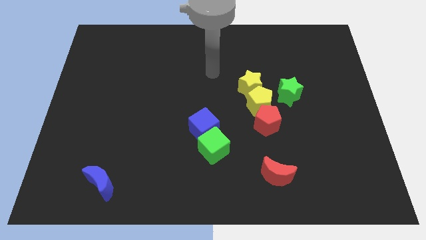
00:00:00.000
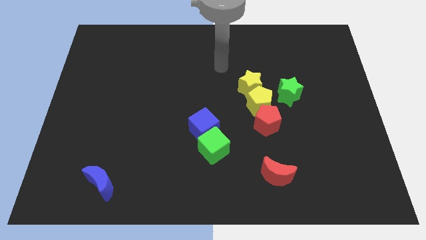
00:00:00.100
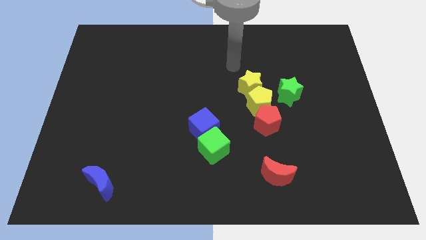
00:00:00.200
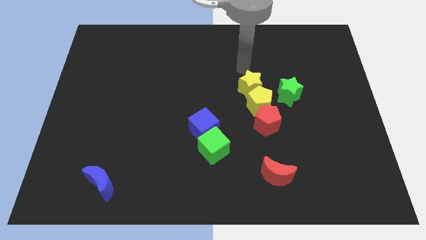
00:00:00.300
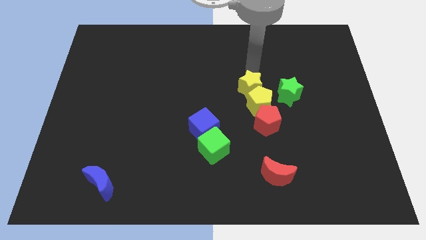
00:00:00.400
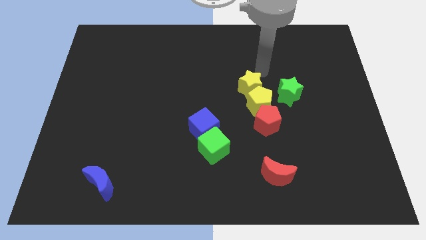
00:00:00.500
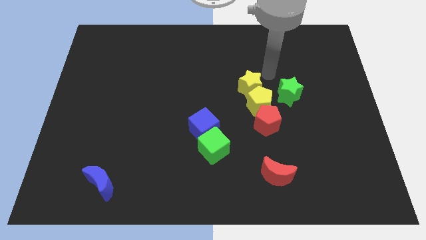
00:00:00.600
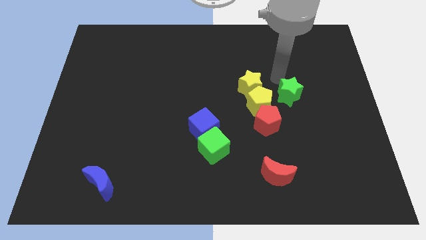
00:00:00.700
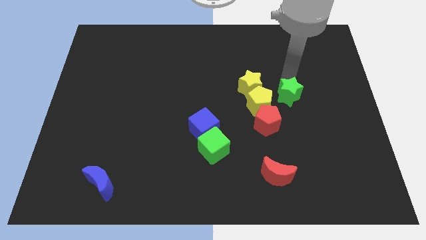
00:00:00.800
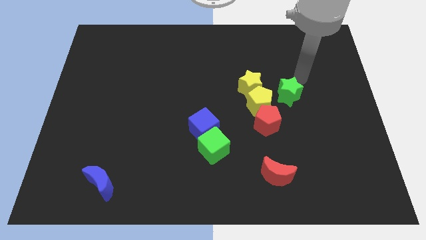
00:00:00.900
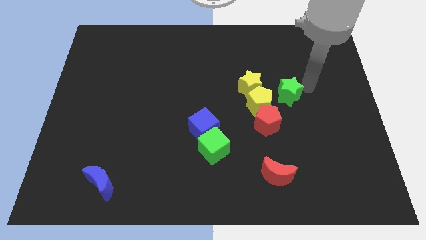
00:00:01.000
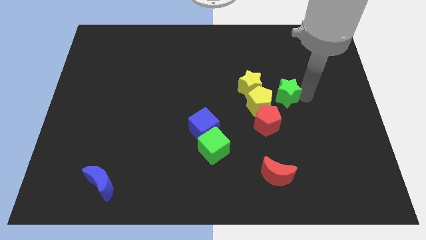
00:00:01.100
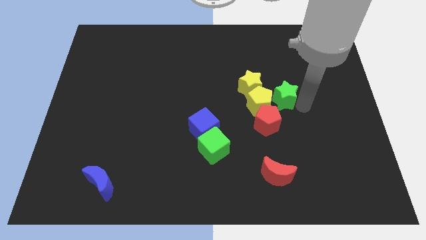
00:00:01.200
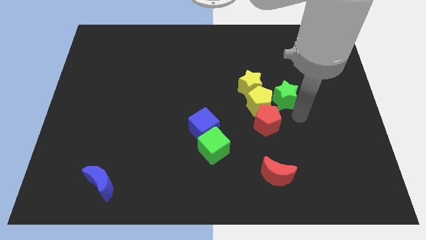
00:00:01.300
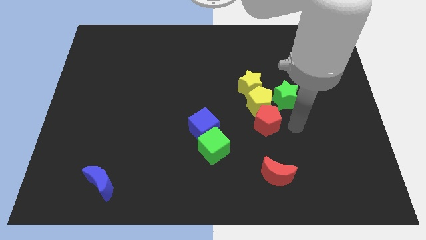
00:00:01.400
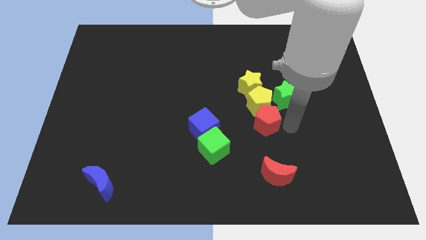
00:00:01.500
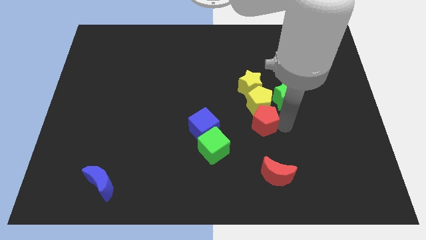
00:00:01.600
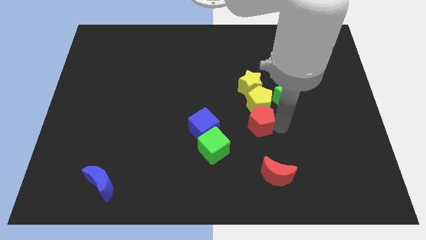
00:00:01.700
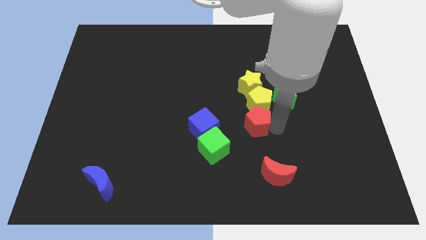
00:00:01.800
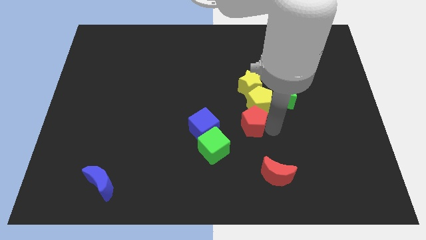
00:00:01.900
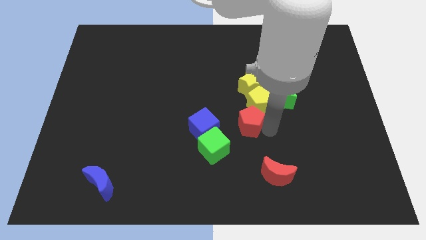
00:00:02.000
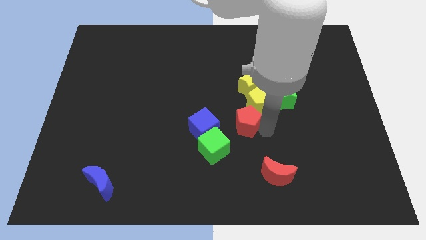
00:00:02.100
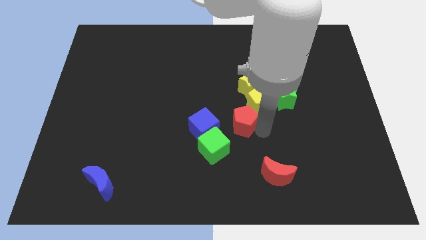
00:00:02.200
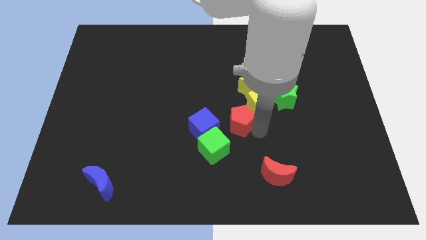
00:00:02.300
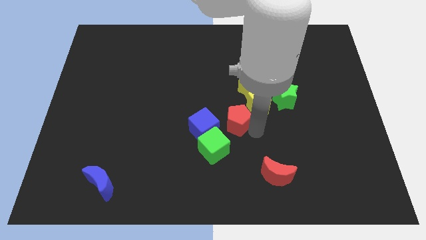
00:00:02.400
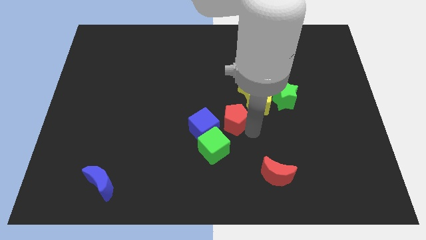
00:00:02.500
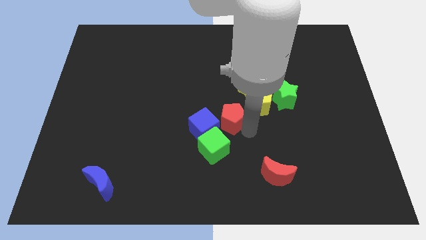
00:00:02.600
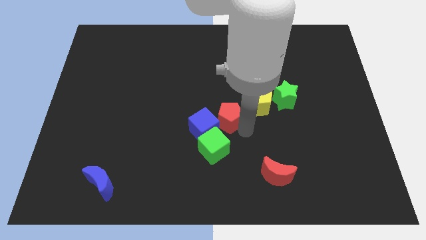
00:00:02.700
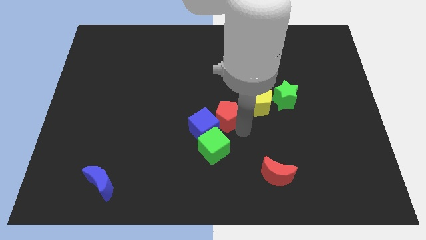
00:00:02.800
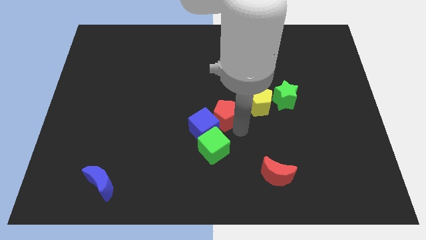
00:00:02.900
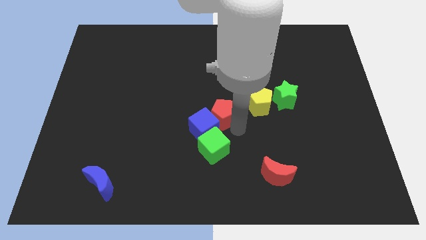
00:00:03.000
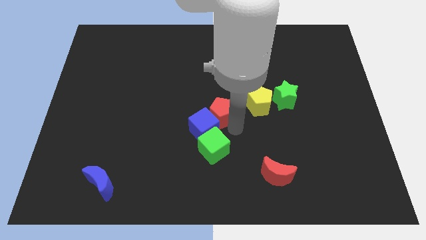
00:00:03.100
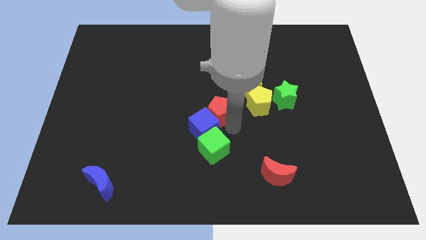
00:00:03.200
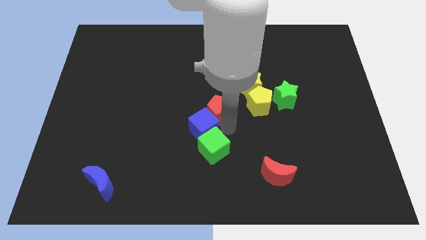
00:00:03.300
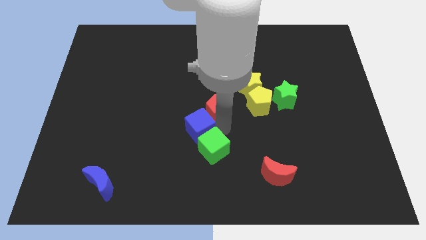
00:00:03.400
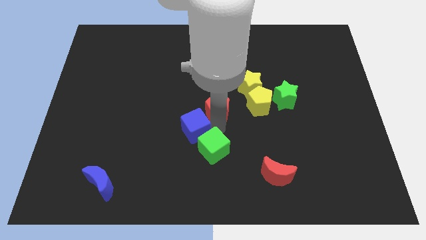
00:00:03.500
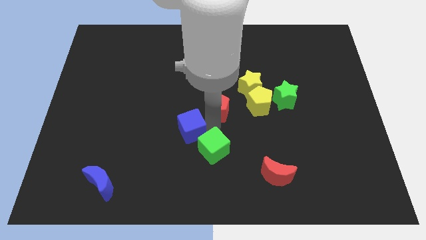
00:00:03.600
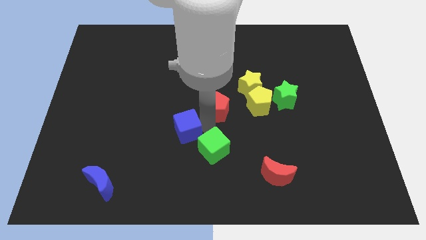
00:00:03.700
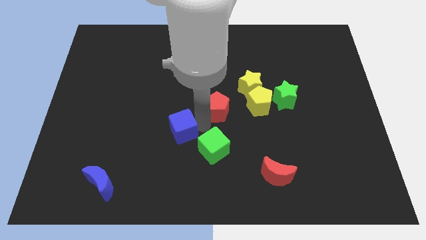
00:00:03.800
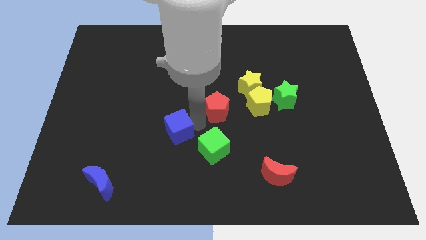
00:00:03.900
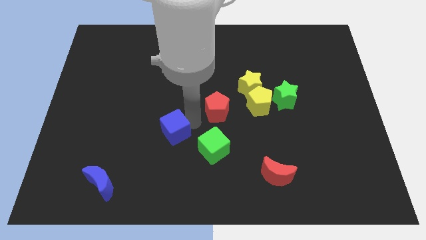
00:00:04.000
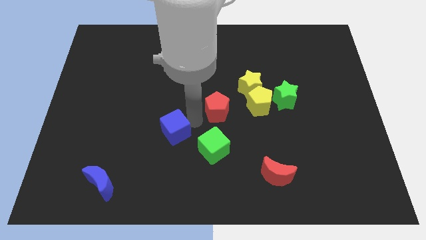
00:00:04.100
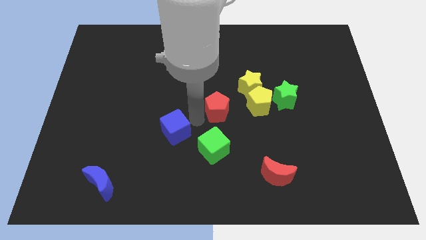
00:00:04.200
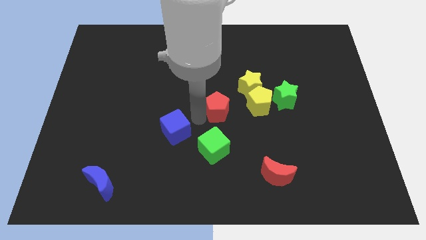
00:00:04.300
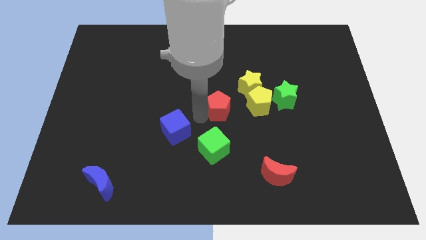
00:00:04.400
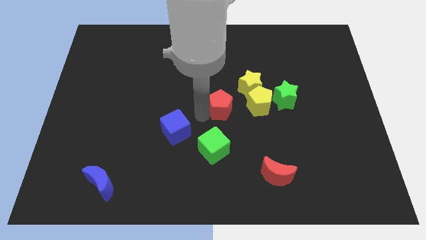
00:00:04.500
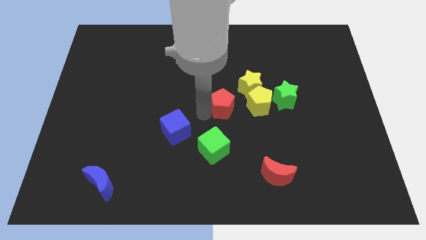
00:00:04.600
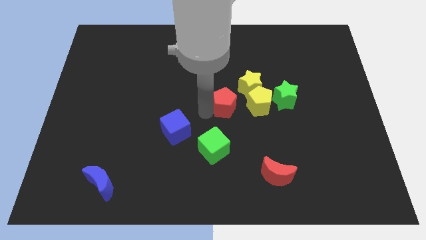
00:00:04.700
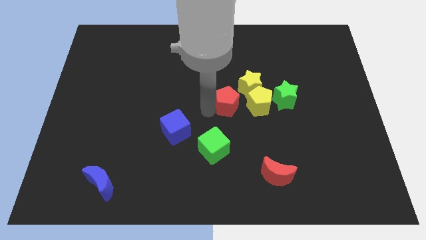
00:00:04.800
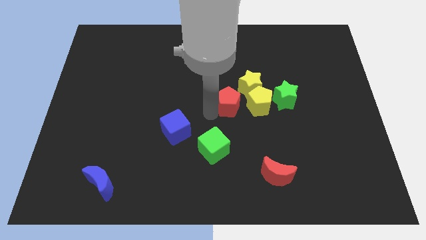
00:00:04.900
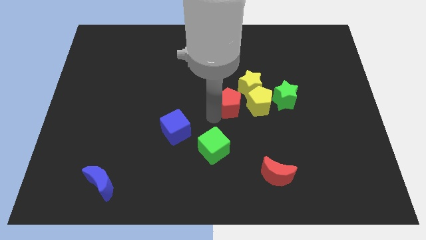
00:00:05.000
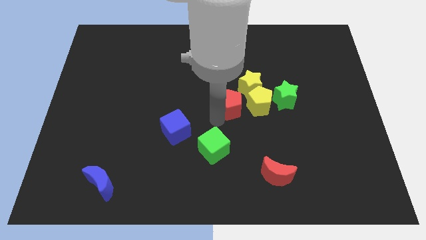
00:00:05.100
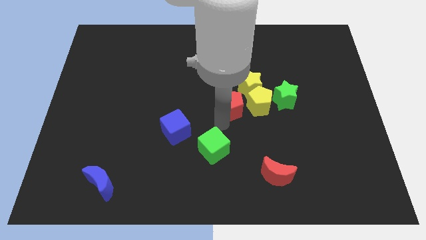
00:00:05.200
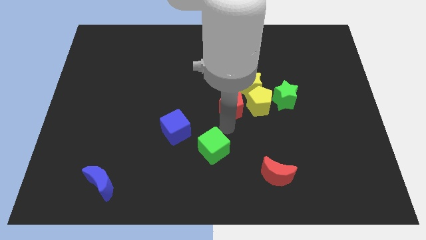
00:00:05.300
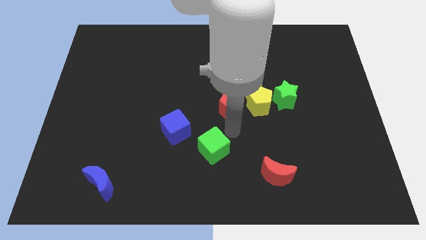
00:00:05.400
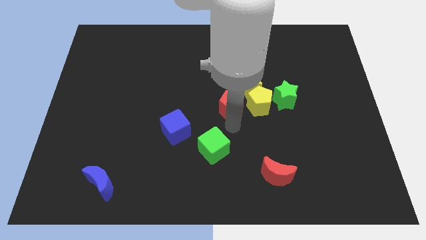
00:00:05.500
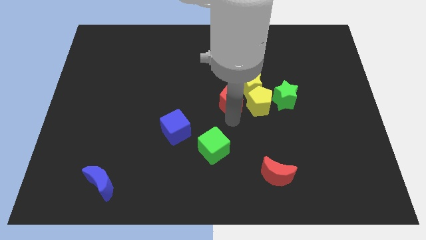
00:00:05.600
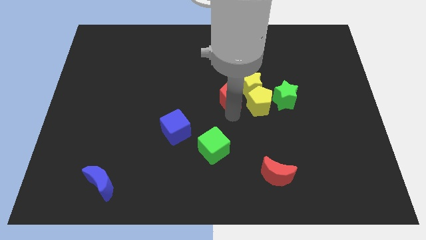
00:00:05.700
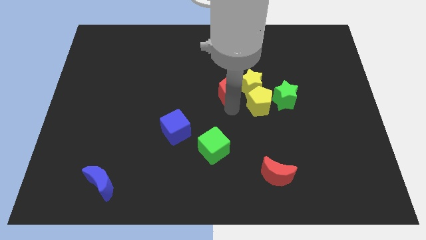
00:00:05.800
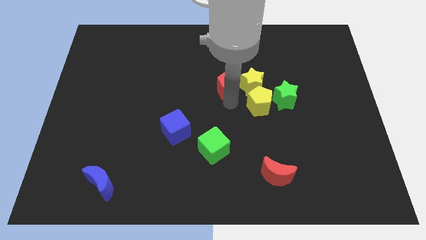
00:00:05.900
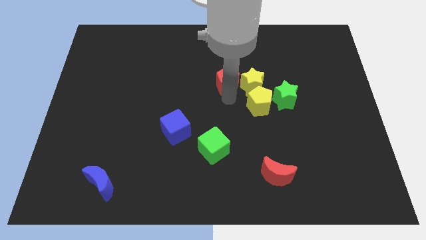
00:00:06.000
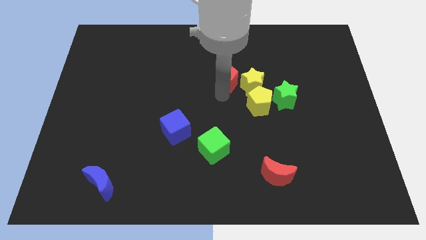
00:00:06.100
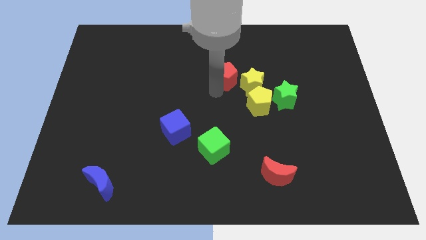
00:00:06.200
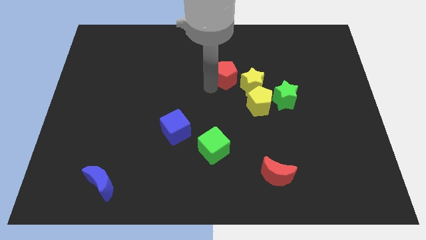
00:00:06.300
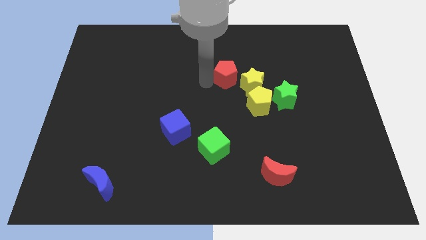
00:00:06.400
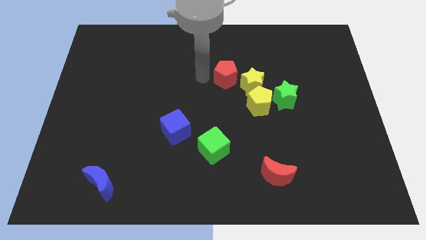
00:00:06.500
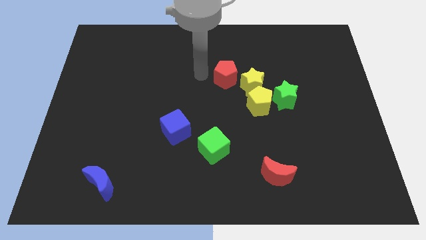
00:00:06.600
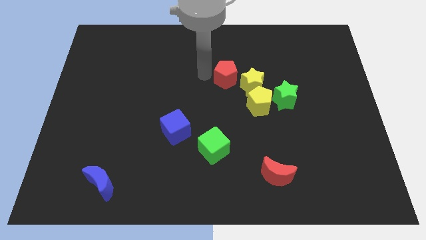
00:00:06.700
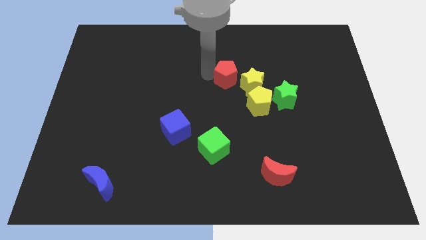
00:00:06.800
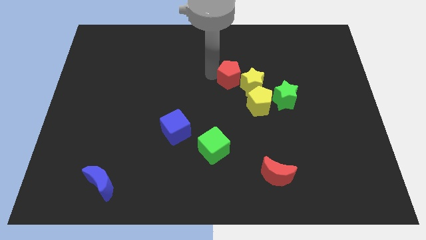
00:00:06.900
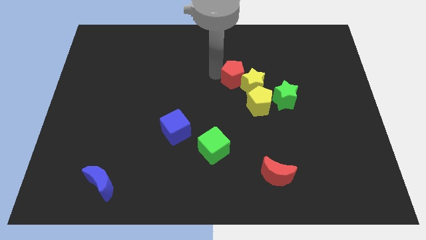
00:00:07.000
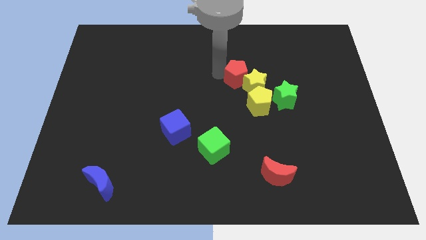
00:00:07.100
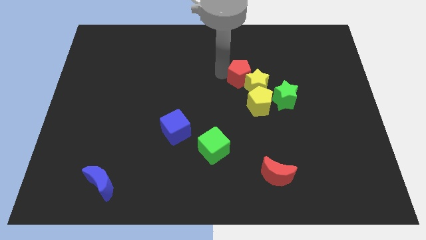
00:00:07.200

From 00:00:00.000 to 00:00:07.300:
slide the red pentagon diagonally up and to the left of the green star
